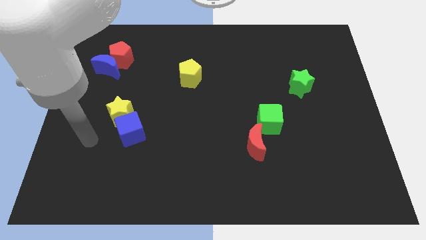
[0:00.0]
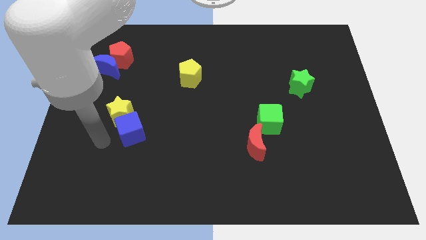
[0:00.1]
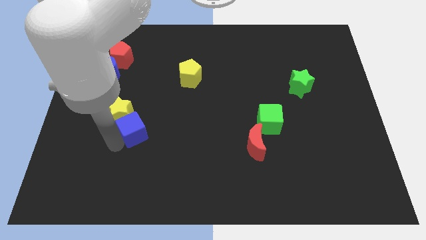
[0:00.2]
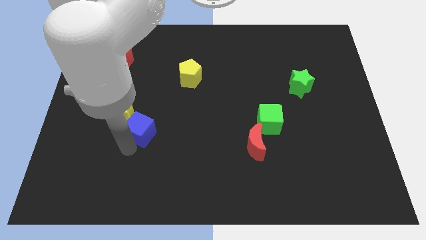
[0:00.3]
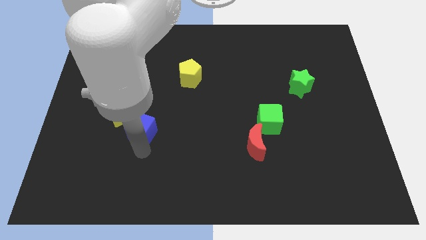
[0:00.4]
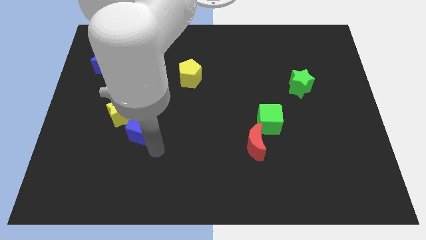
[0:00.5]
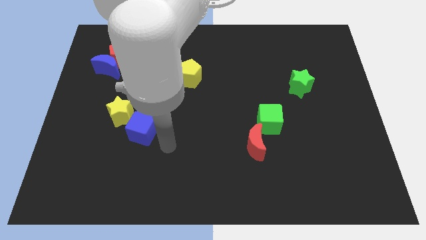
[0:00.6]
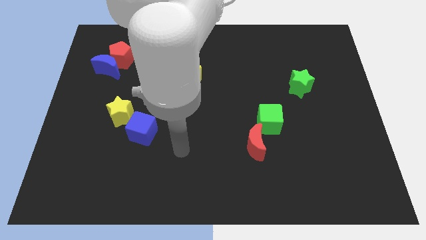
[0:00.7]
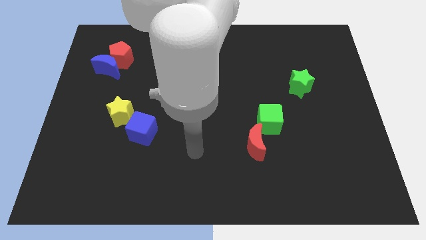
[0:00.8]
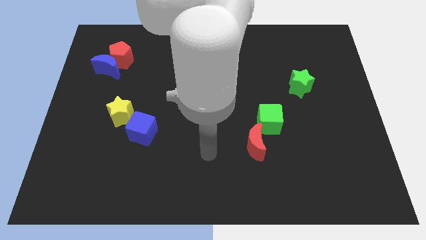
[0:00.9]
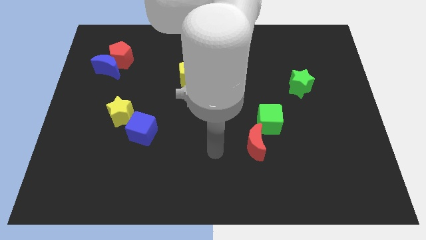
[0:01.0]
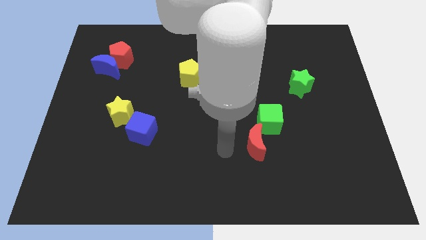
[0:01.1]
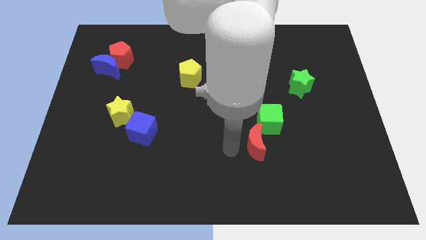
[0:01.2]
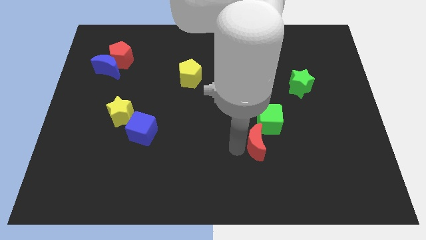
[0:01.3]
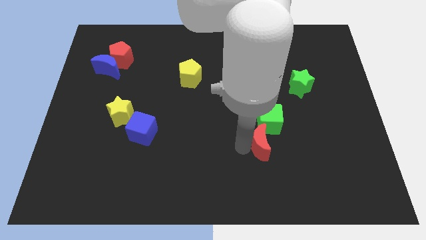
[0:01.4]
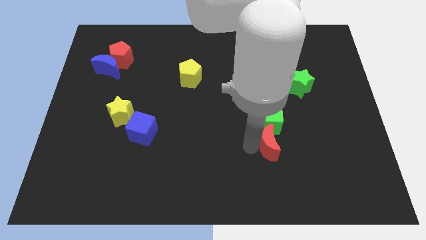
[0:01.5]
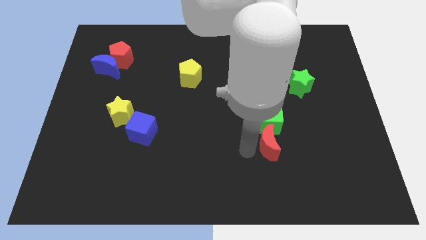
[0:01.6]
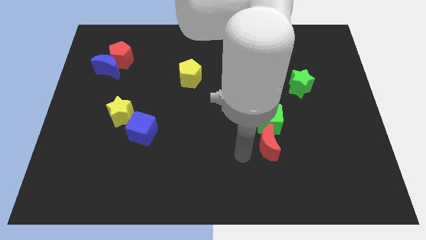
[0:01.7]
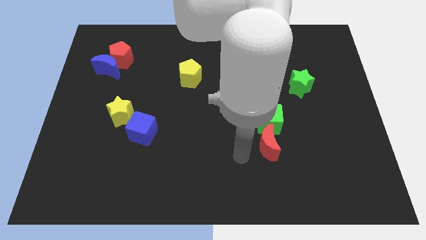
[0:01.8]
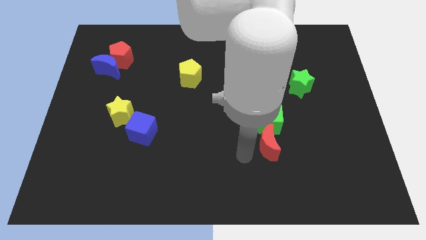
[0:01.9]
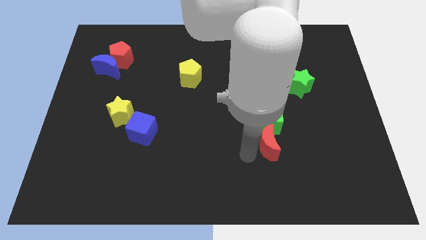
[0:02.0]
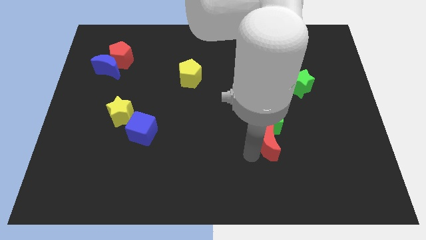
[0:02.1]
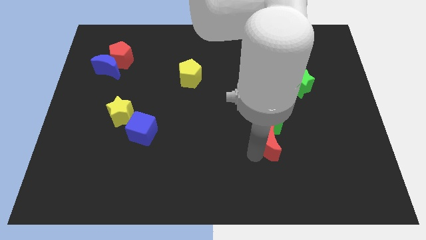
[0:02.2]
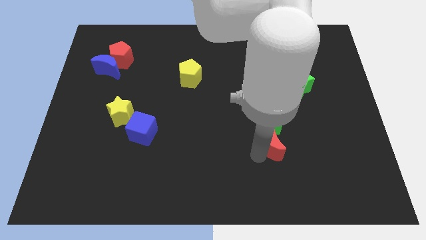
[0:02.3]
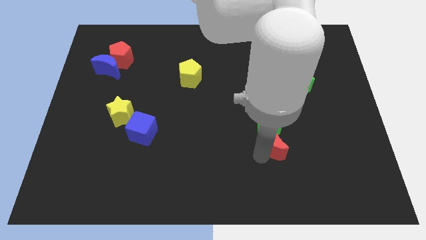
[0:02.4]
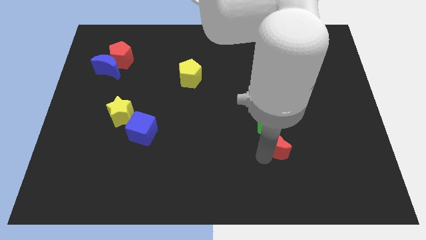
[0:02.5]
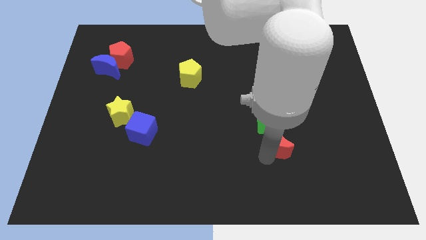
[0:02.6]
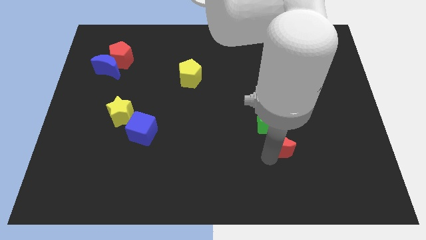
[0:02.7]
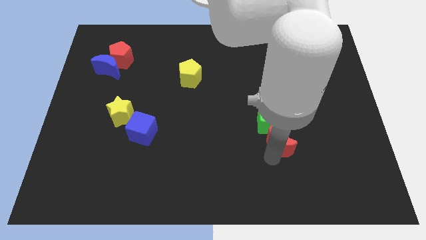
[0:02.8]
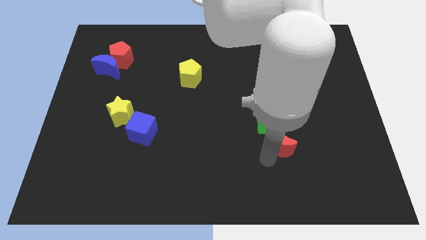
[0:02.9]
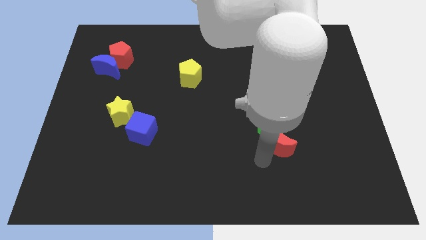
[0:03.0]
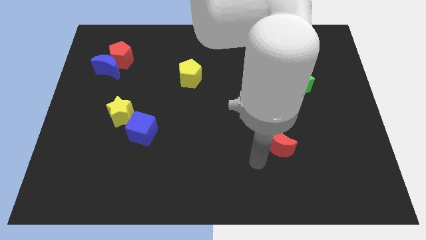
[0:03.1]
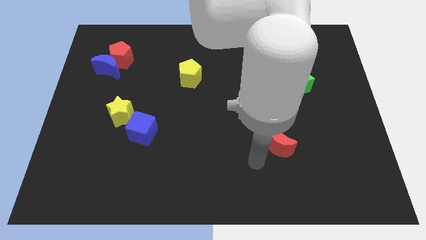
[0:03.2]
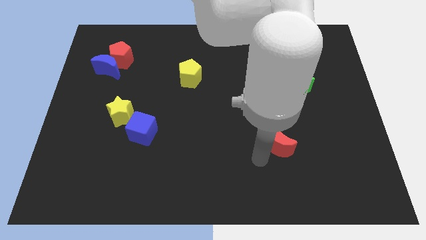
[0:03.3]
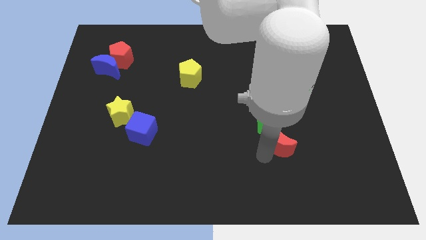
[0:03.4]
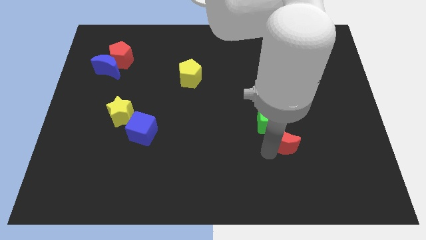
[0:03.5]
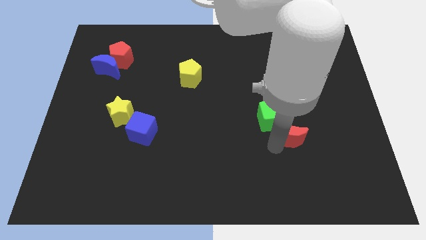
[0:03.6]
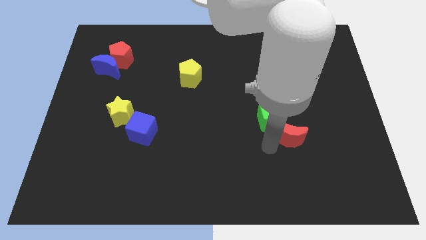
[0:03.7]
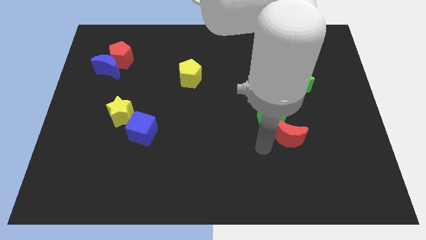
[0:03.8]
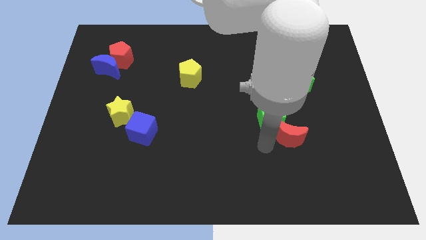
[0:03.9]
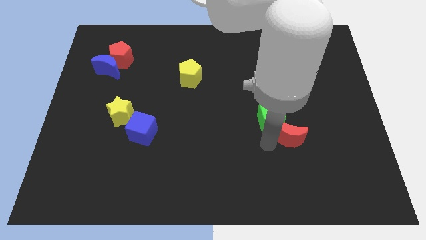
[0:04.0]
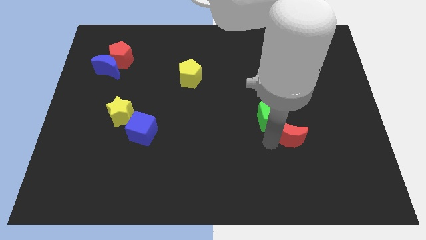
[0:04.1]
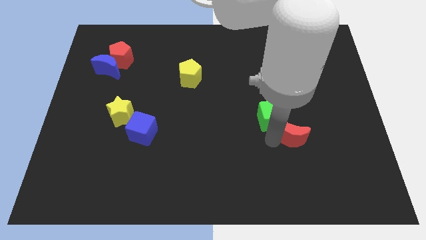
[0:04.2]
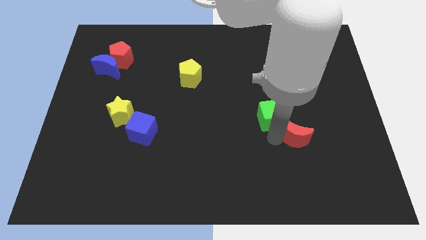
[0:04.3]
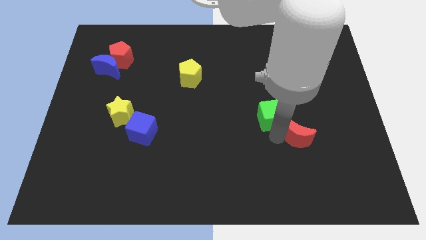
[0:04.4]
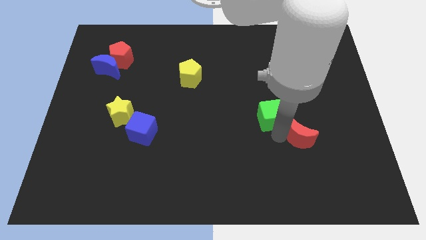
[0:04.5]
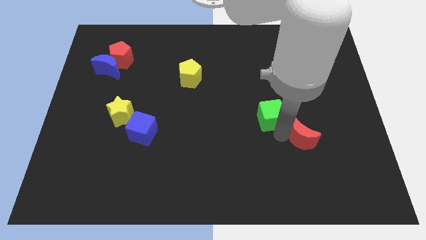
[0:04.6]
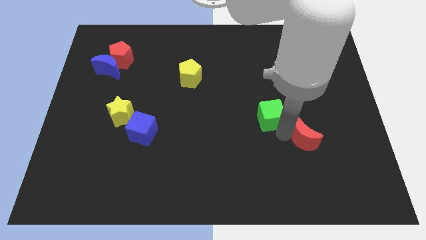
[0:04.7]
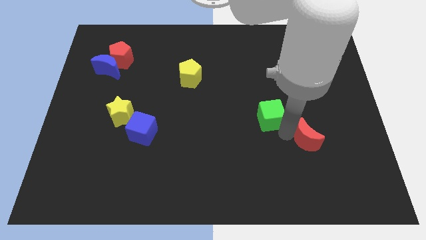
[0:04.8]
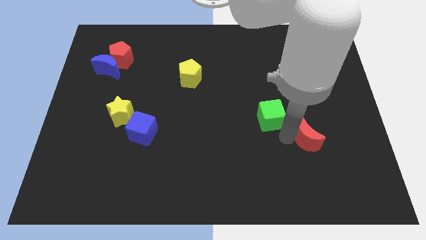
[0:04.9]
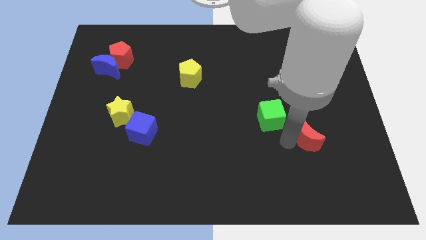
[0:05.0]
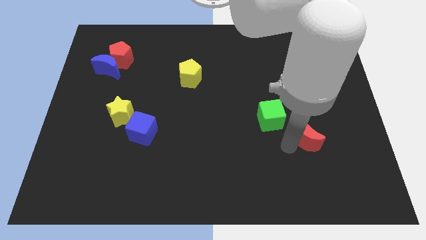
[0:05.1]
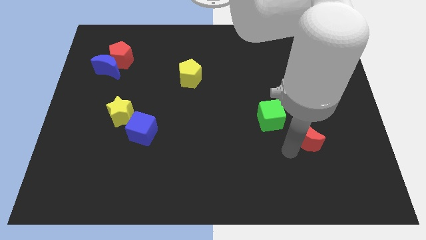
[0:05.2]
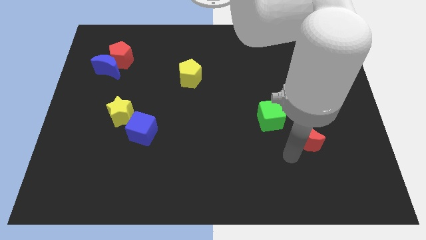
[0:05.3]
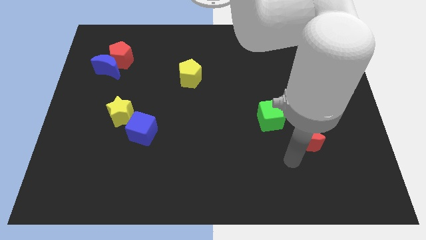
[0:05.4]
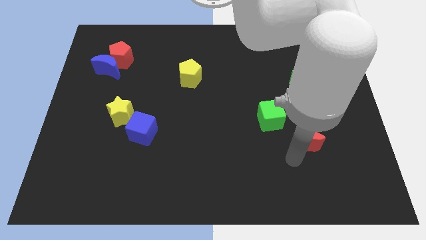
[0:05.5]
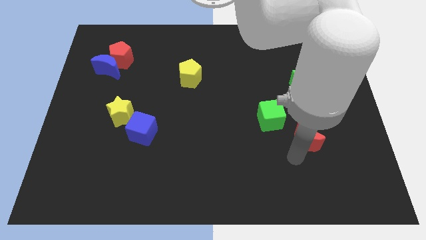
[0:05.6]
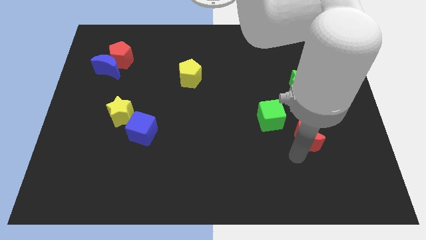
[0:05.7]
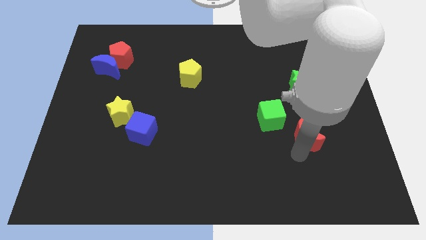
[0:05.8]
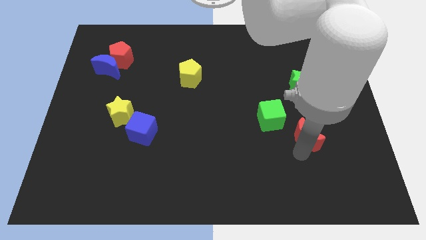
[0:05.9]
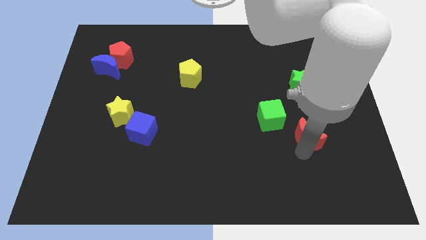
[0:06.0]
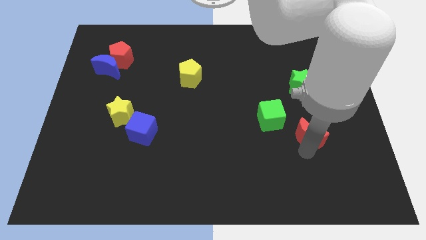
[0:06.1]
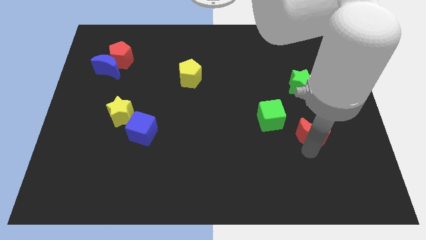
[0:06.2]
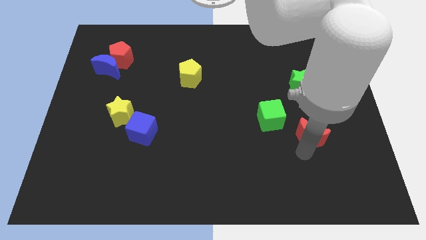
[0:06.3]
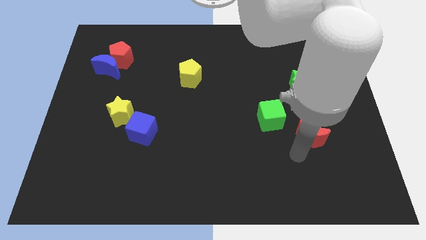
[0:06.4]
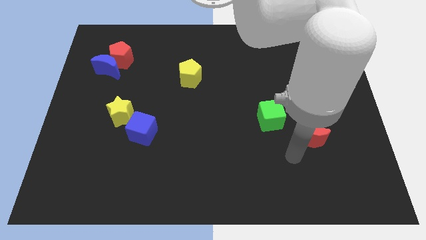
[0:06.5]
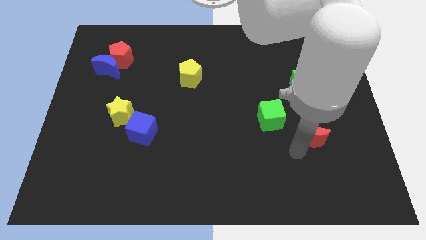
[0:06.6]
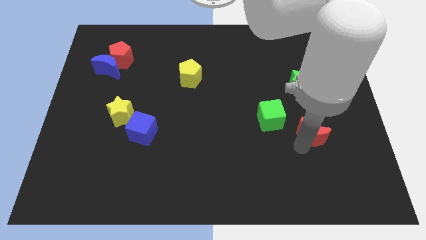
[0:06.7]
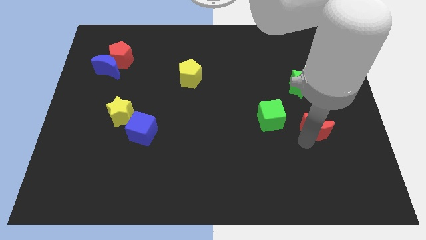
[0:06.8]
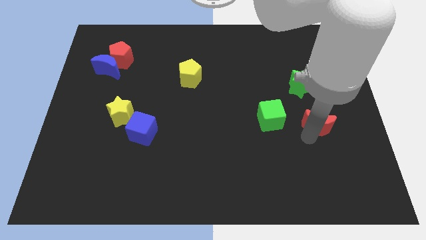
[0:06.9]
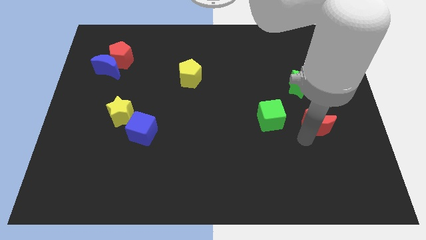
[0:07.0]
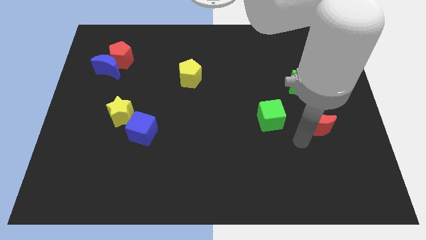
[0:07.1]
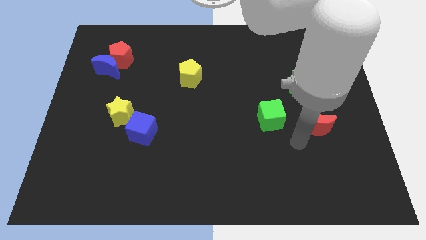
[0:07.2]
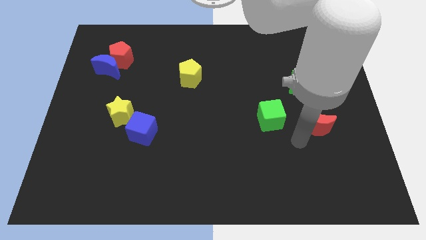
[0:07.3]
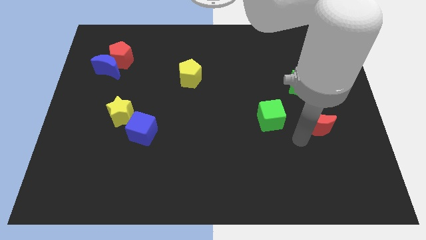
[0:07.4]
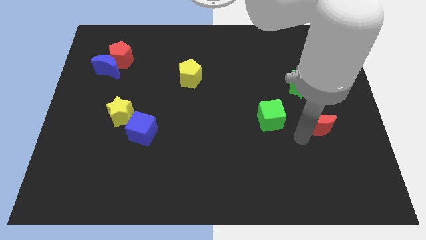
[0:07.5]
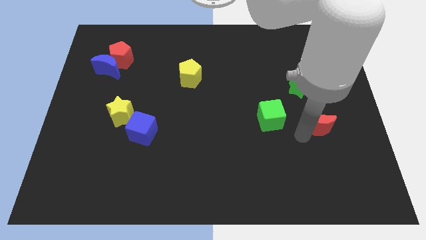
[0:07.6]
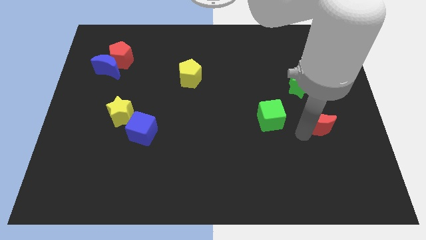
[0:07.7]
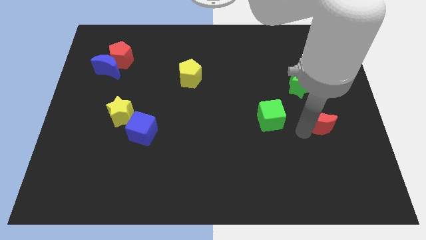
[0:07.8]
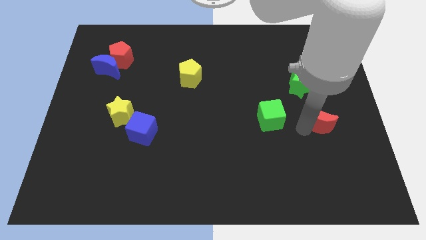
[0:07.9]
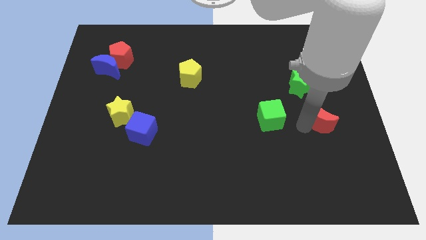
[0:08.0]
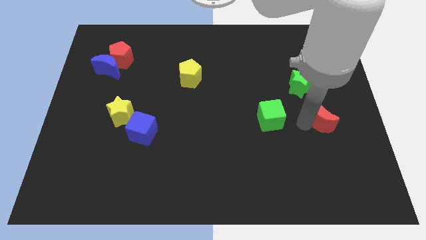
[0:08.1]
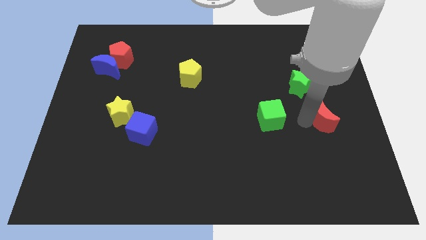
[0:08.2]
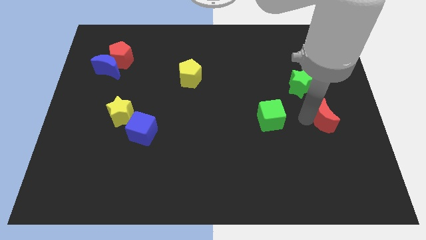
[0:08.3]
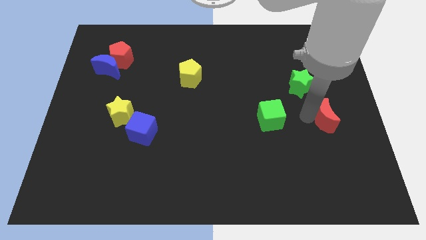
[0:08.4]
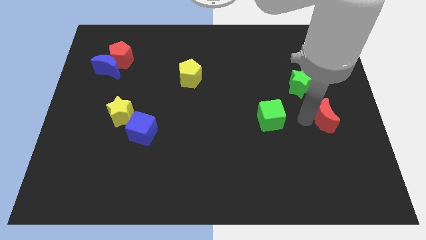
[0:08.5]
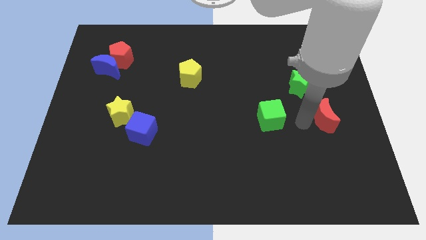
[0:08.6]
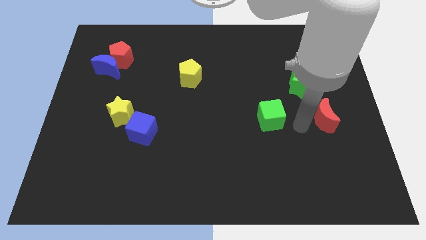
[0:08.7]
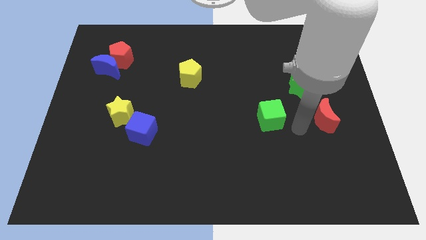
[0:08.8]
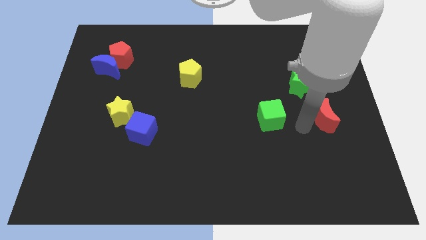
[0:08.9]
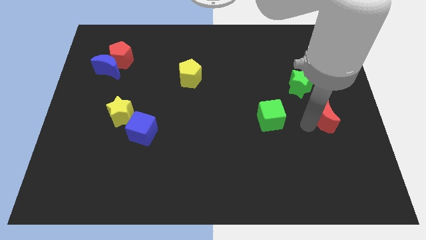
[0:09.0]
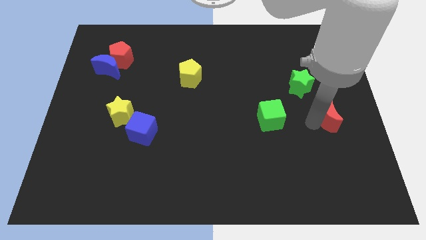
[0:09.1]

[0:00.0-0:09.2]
slide the red moon to the right side of the board
